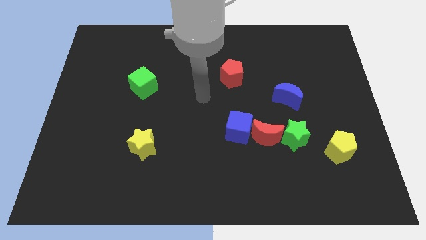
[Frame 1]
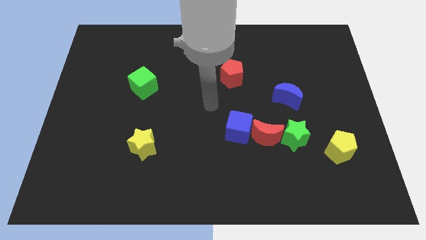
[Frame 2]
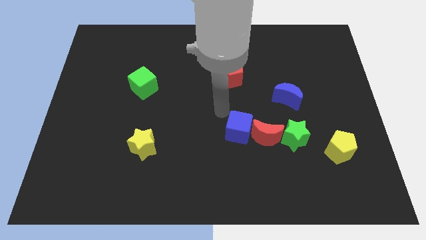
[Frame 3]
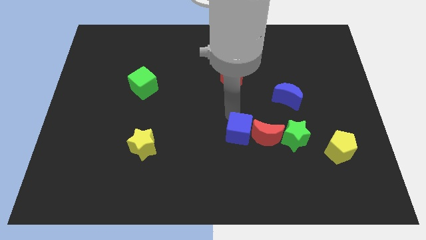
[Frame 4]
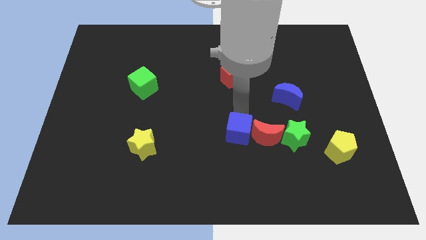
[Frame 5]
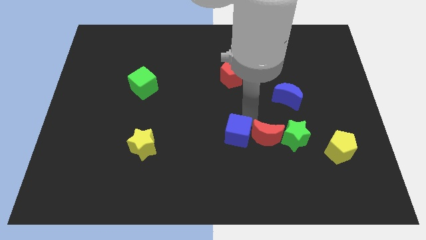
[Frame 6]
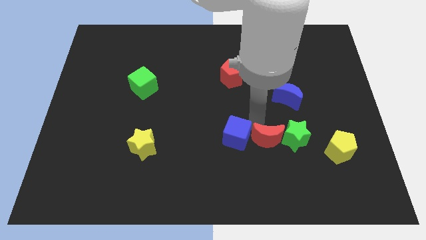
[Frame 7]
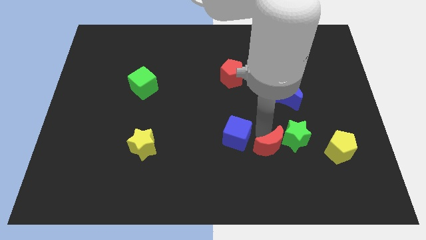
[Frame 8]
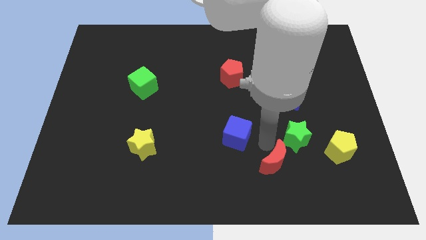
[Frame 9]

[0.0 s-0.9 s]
move the blue cube away from the red moon

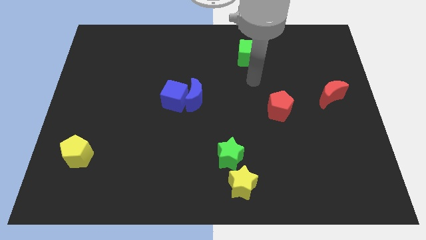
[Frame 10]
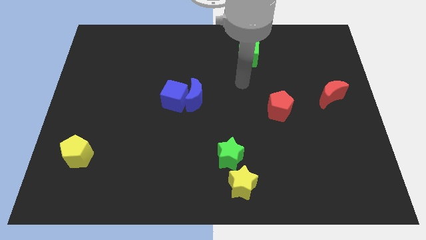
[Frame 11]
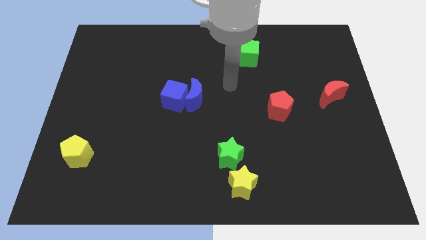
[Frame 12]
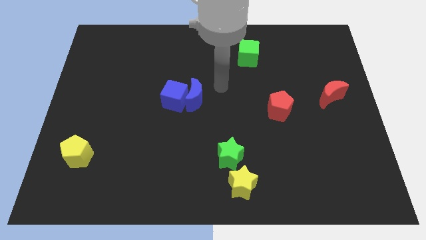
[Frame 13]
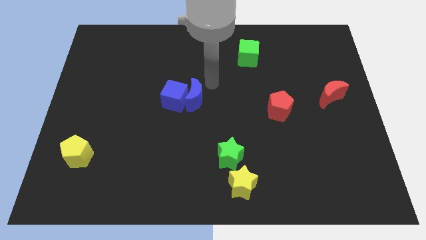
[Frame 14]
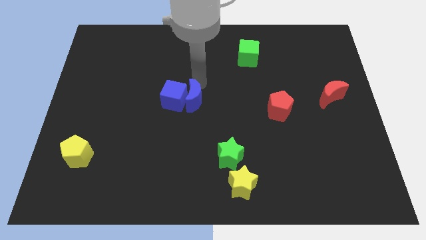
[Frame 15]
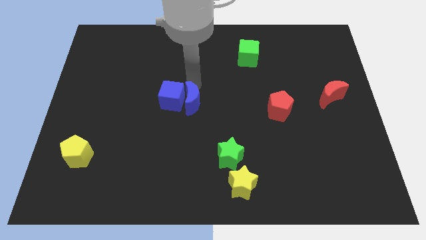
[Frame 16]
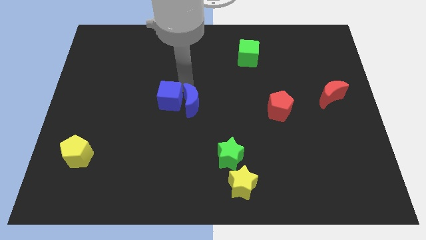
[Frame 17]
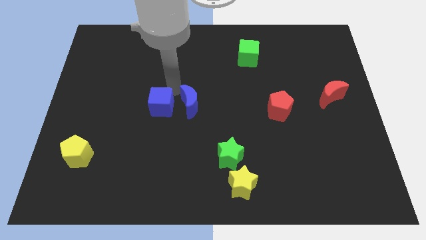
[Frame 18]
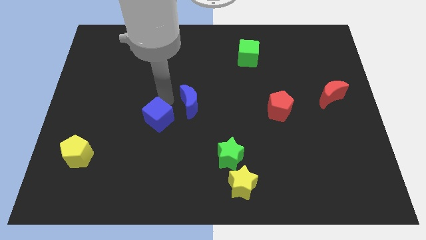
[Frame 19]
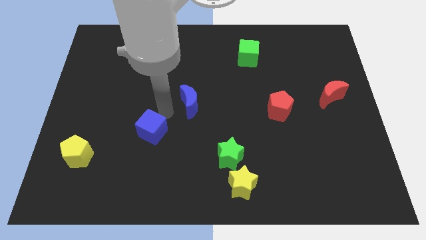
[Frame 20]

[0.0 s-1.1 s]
move the blue moon away from the blue cube

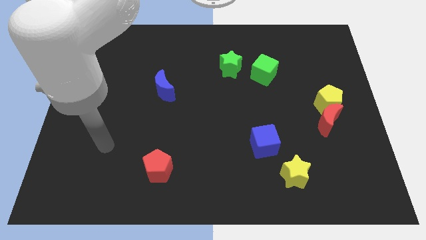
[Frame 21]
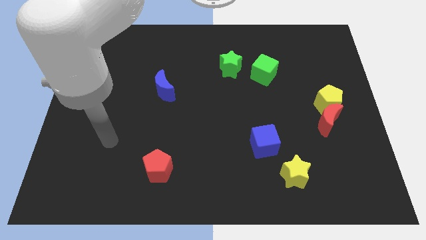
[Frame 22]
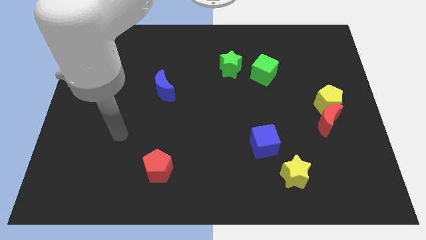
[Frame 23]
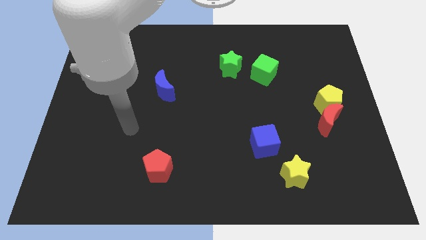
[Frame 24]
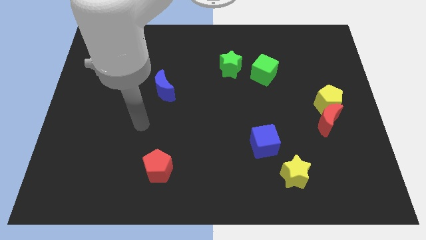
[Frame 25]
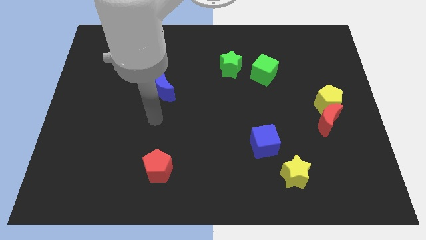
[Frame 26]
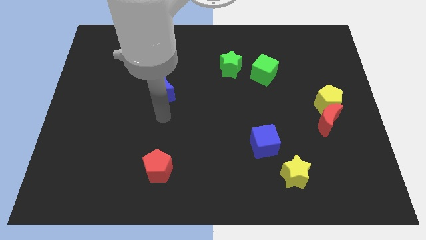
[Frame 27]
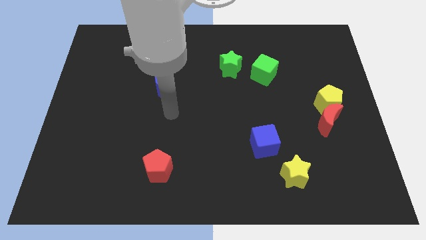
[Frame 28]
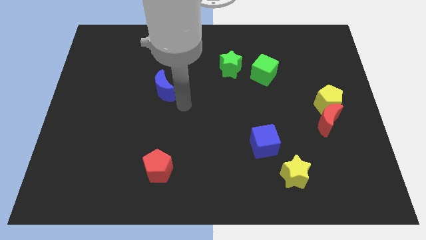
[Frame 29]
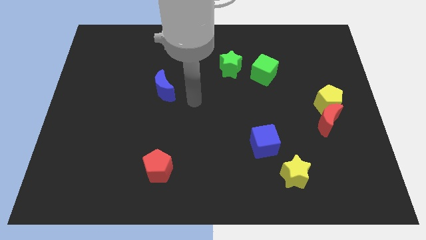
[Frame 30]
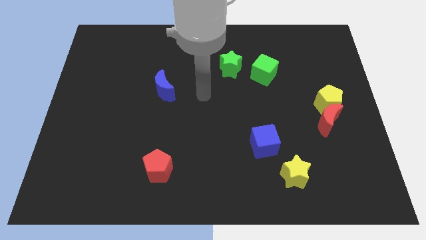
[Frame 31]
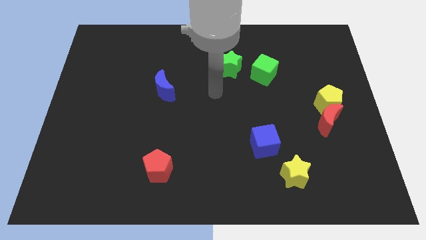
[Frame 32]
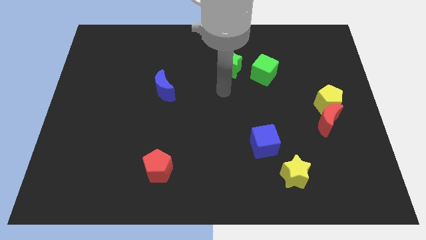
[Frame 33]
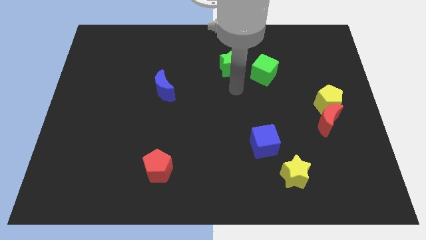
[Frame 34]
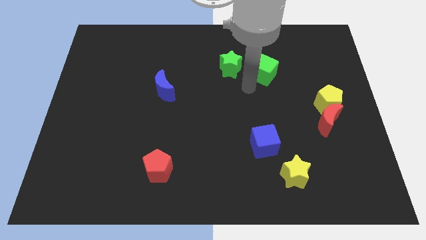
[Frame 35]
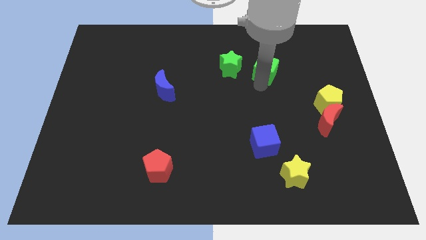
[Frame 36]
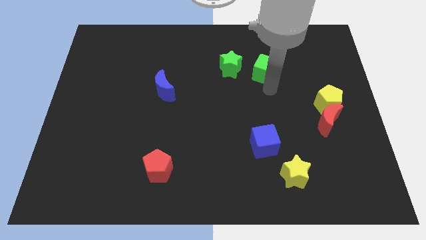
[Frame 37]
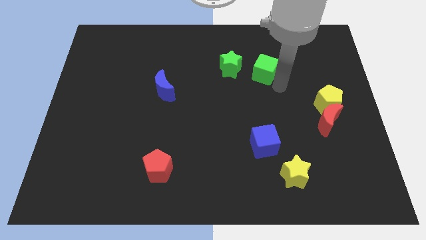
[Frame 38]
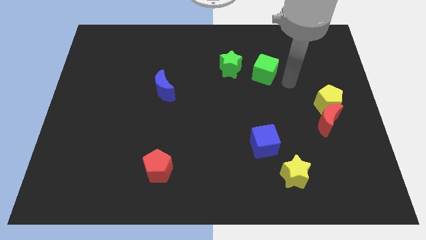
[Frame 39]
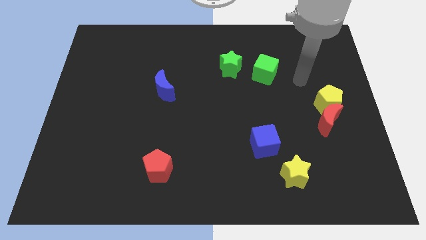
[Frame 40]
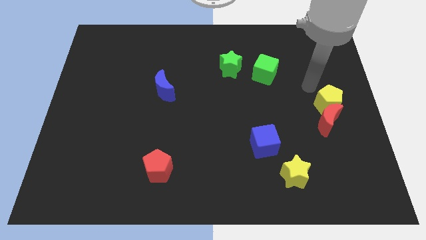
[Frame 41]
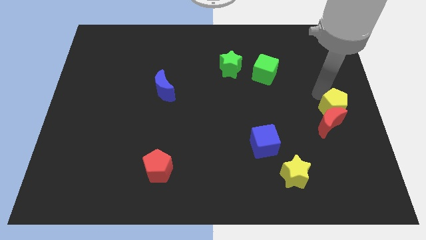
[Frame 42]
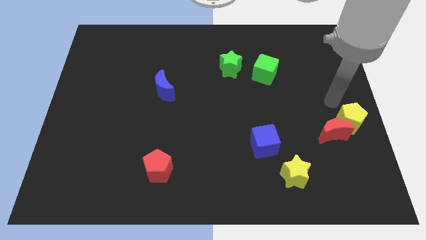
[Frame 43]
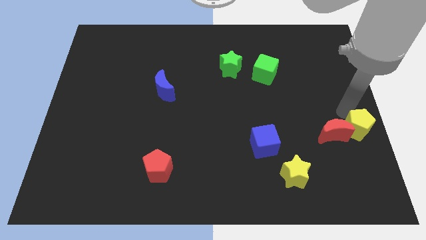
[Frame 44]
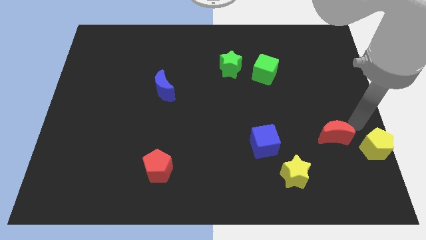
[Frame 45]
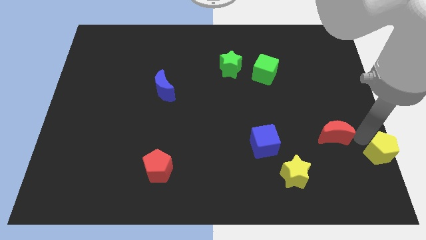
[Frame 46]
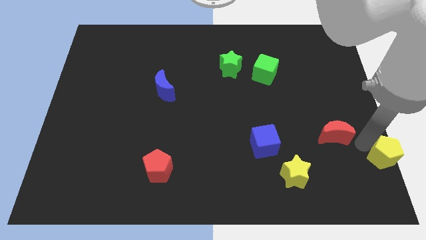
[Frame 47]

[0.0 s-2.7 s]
separate the red moon from the yellow pentagon

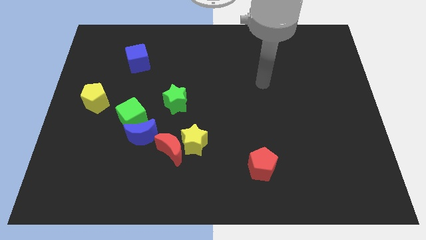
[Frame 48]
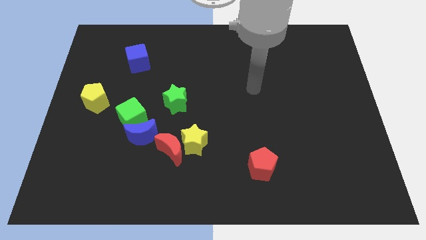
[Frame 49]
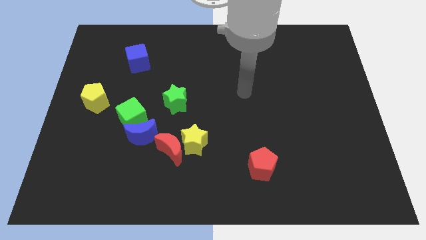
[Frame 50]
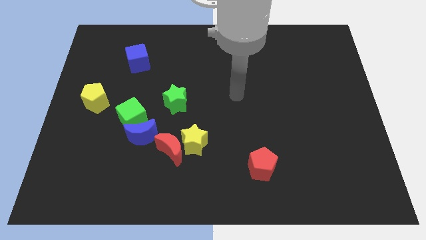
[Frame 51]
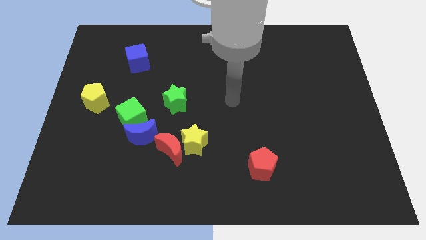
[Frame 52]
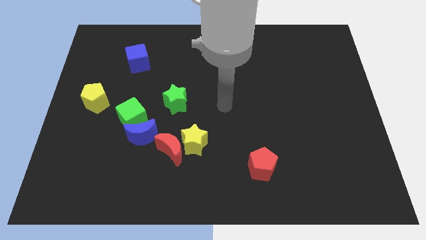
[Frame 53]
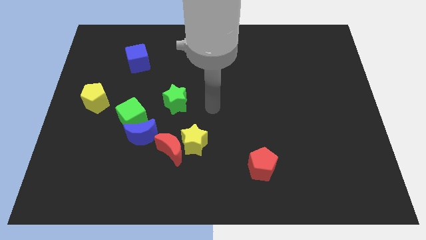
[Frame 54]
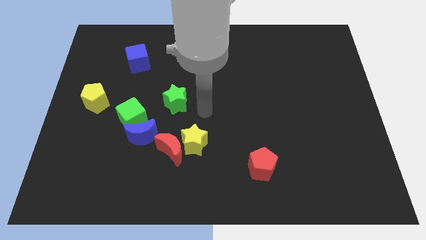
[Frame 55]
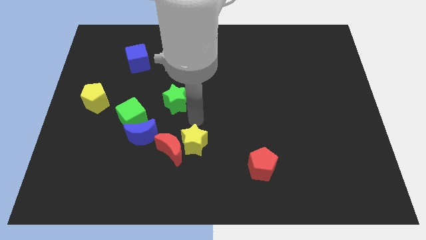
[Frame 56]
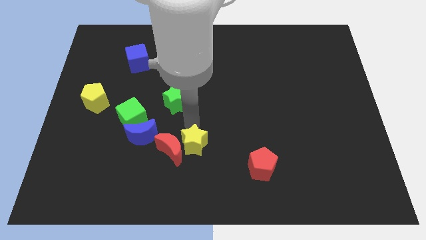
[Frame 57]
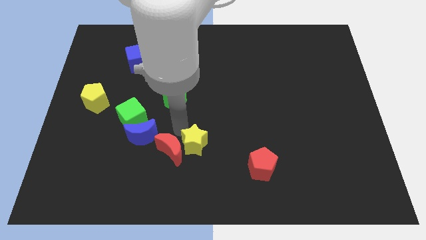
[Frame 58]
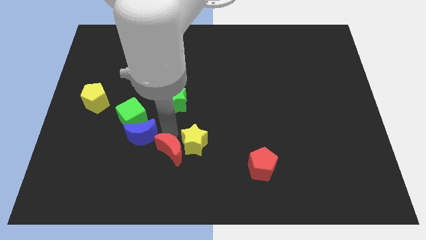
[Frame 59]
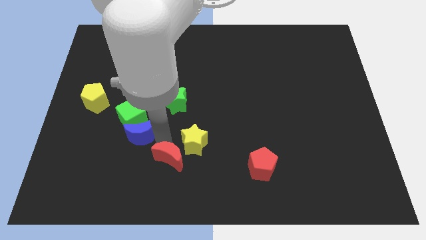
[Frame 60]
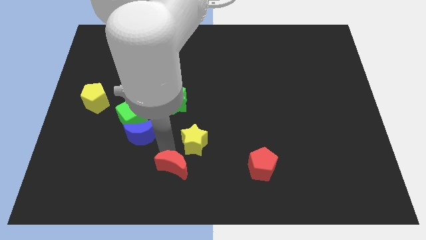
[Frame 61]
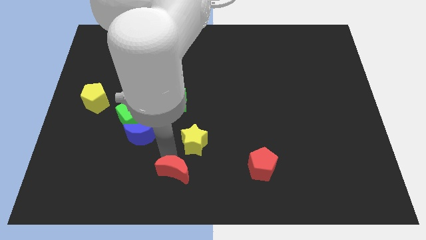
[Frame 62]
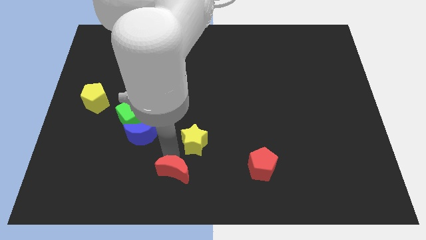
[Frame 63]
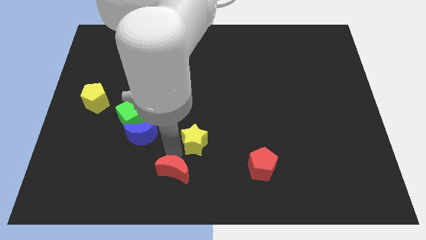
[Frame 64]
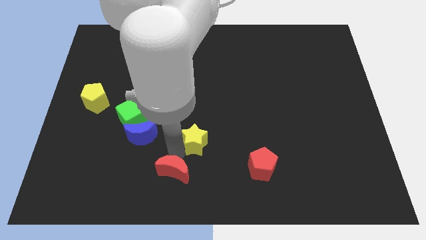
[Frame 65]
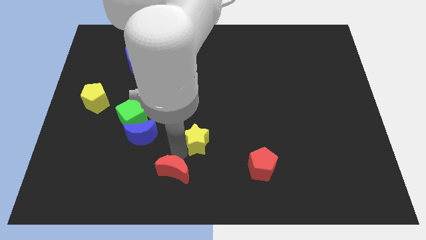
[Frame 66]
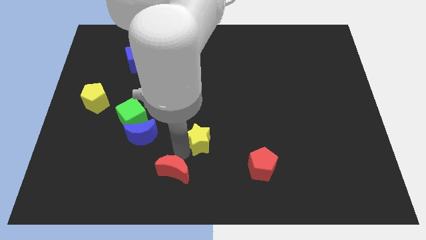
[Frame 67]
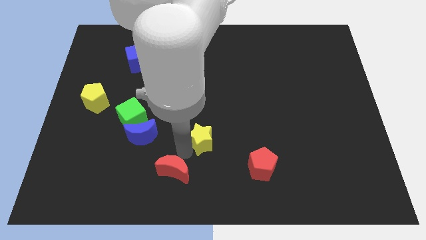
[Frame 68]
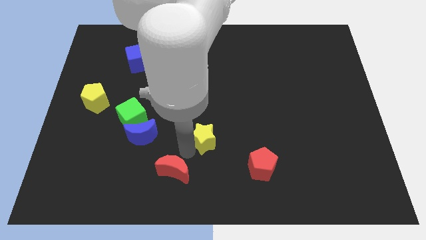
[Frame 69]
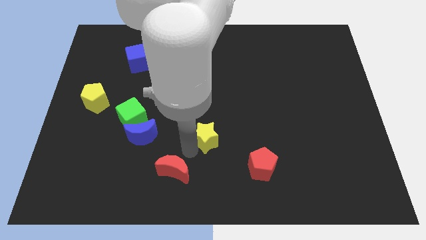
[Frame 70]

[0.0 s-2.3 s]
pull the yellow star apart from the red moon

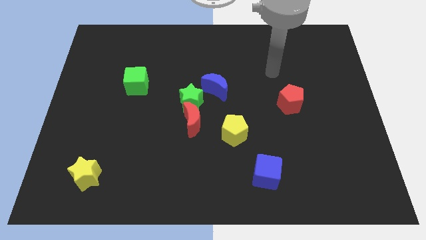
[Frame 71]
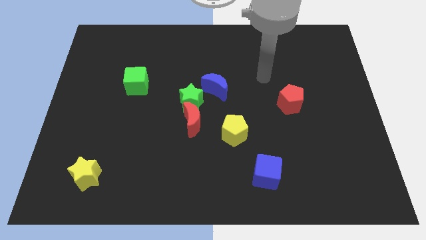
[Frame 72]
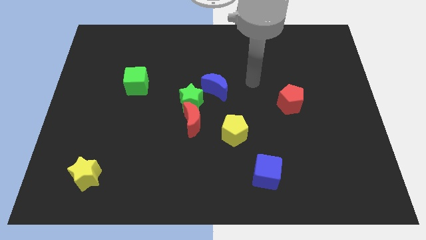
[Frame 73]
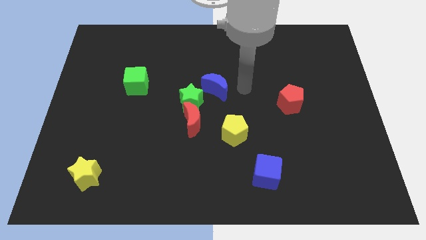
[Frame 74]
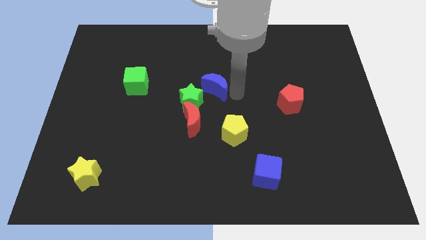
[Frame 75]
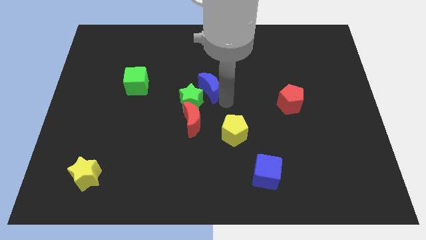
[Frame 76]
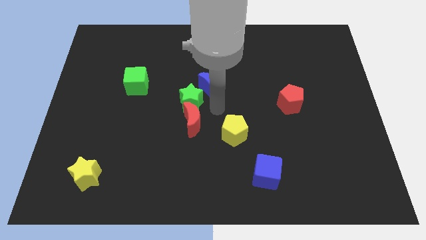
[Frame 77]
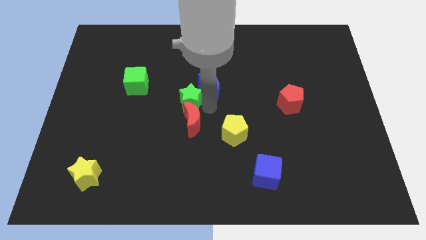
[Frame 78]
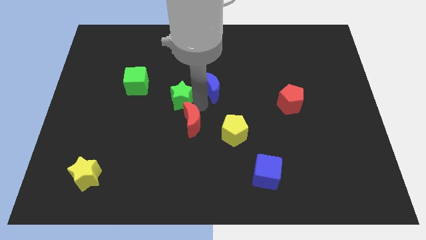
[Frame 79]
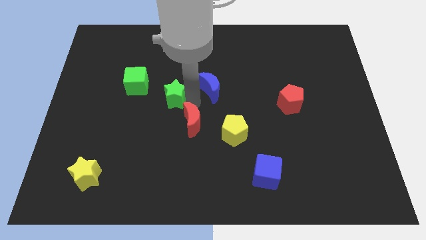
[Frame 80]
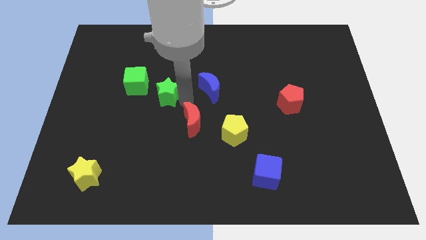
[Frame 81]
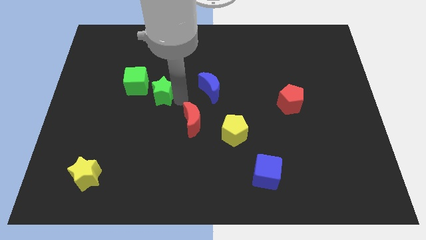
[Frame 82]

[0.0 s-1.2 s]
move the green star away from the red moon and blue moon

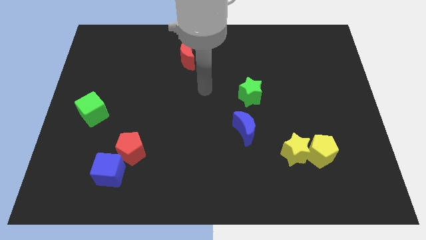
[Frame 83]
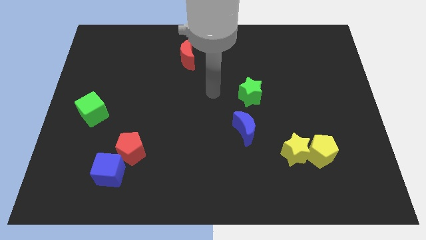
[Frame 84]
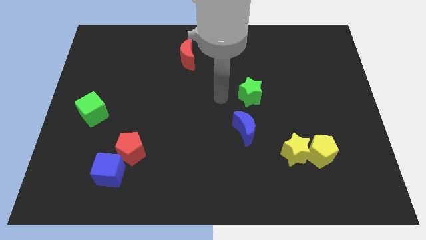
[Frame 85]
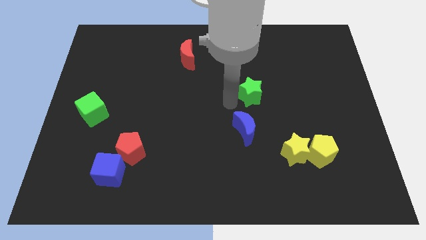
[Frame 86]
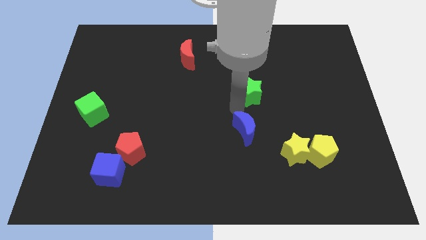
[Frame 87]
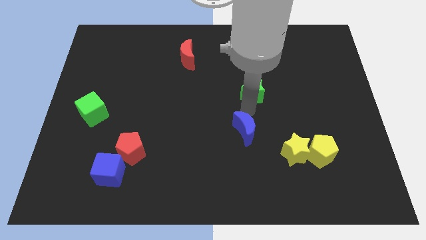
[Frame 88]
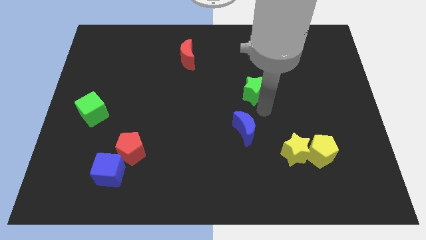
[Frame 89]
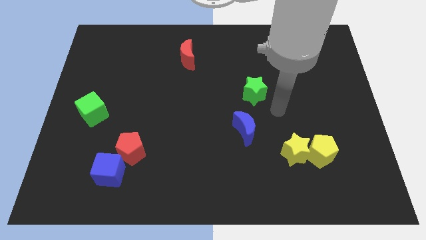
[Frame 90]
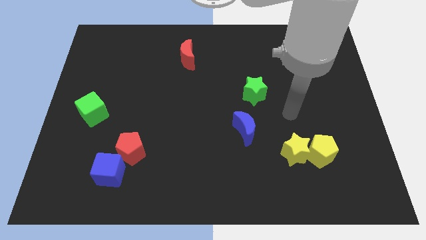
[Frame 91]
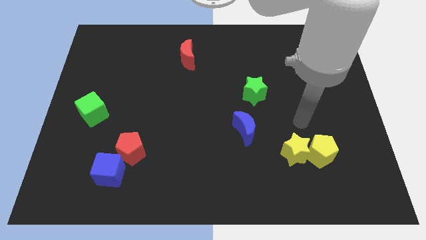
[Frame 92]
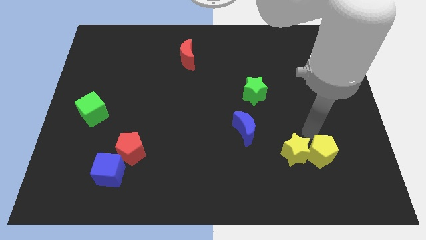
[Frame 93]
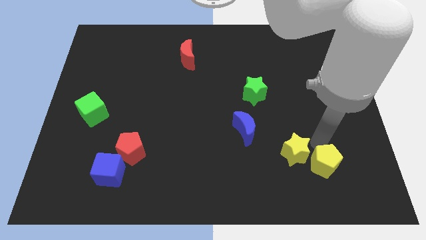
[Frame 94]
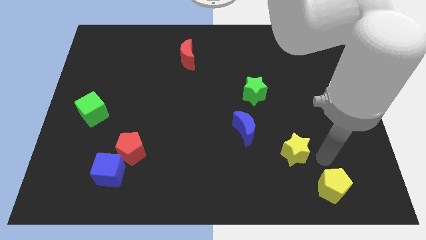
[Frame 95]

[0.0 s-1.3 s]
pull the yellow star apart from the yellow pentagon
